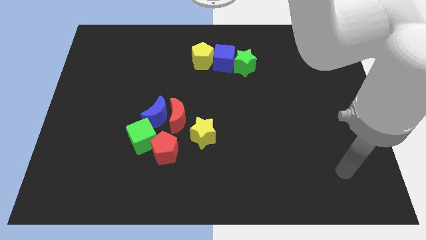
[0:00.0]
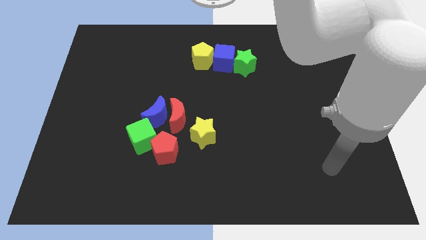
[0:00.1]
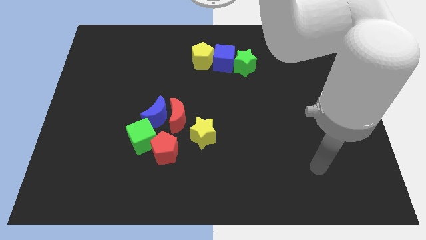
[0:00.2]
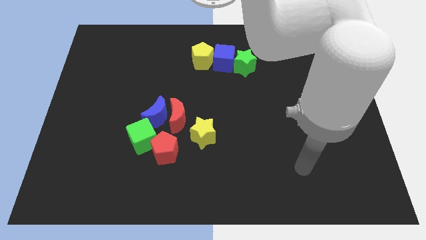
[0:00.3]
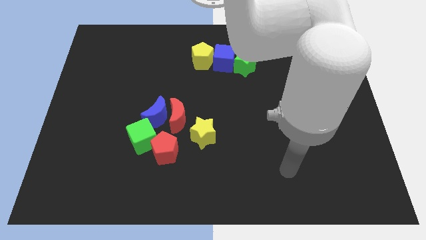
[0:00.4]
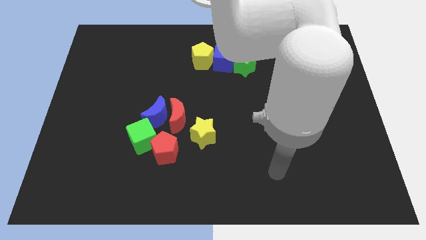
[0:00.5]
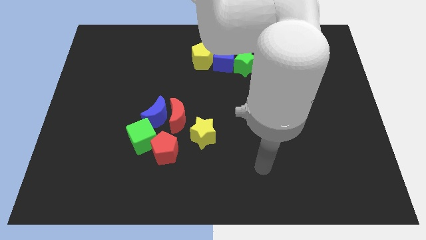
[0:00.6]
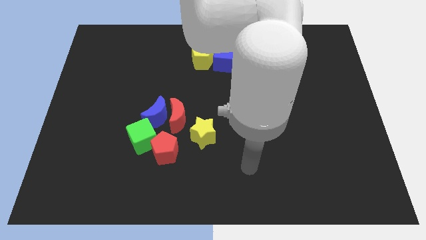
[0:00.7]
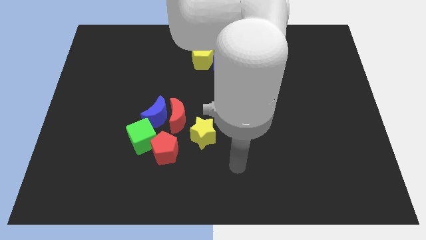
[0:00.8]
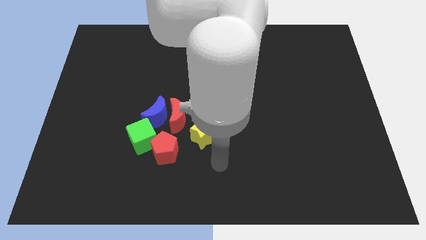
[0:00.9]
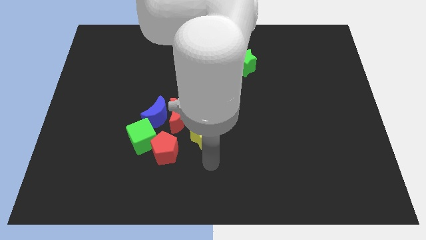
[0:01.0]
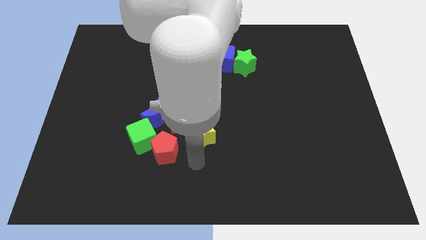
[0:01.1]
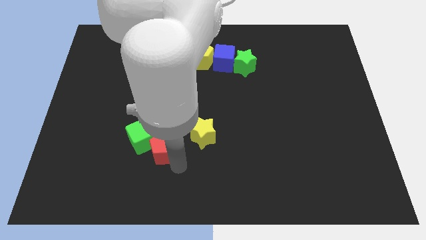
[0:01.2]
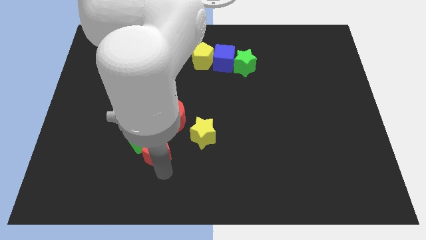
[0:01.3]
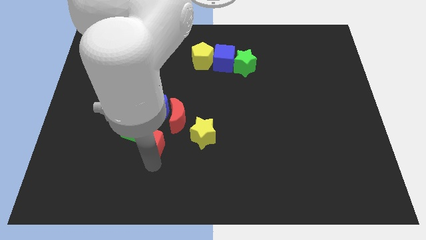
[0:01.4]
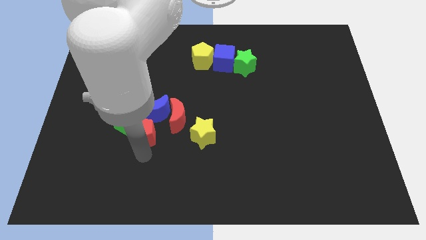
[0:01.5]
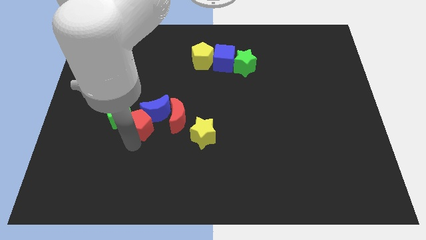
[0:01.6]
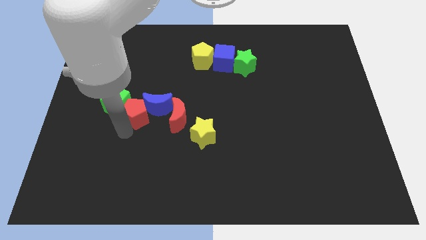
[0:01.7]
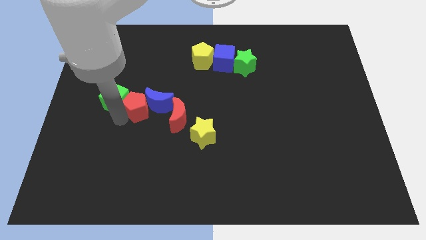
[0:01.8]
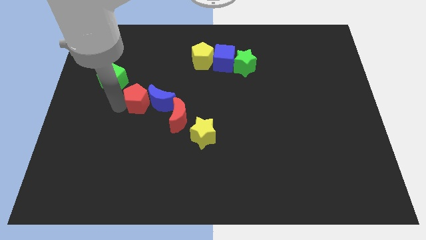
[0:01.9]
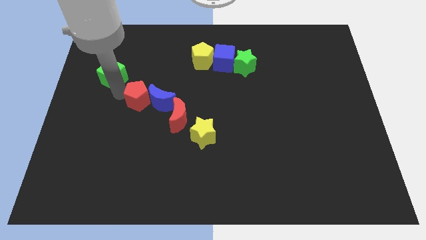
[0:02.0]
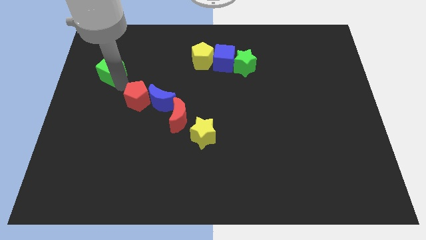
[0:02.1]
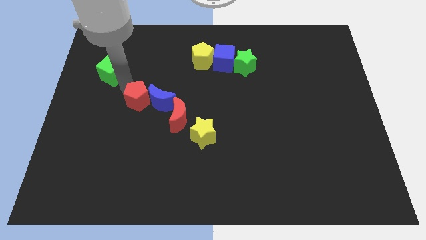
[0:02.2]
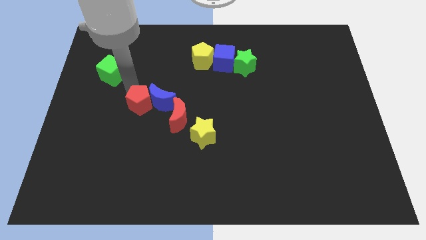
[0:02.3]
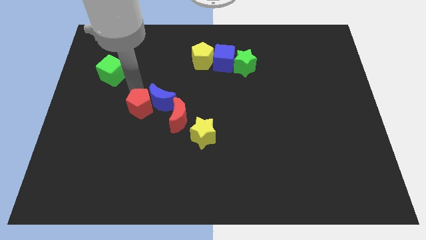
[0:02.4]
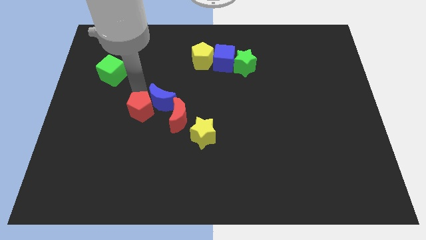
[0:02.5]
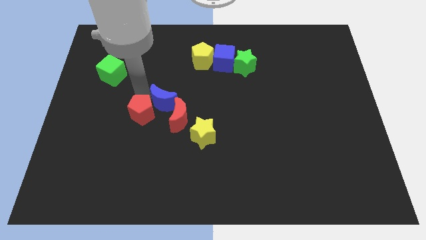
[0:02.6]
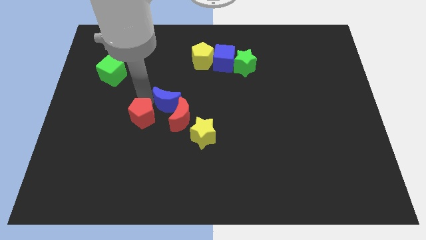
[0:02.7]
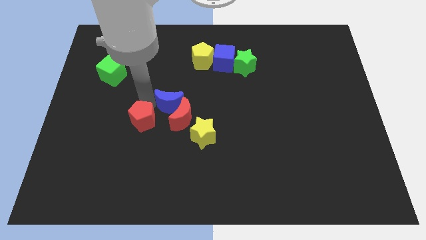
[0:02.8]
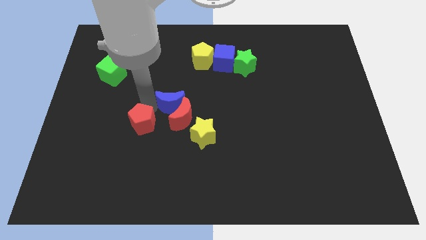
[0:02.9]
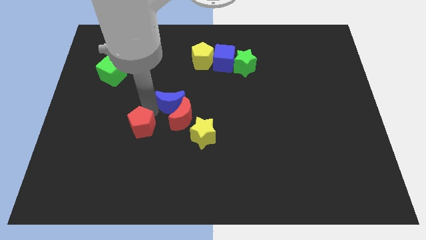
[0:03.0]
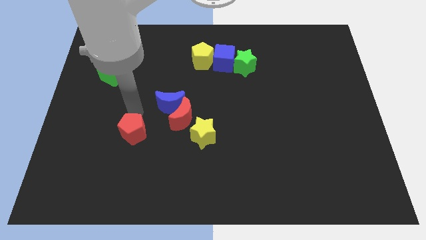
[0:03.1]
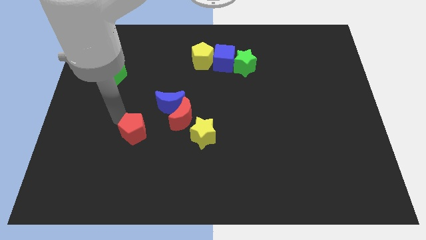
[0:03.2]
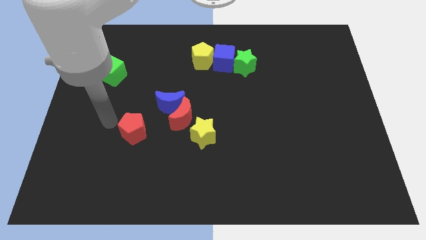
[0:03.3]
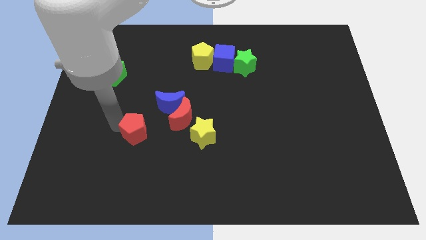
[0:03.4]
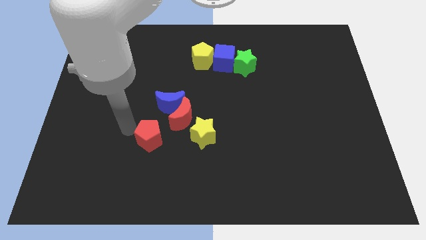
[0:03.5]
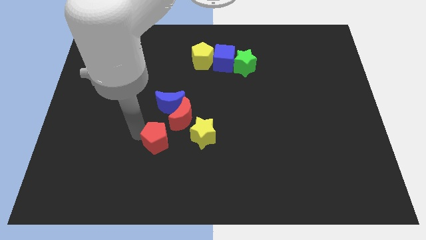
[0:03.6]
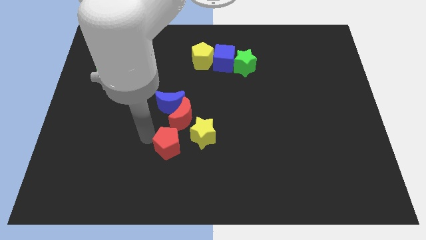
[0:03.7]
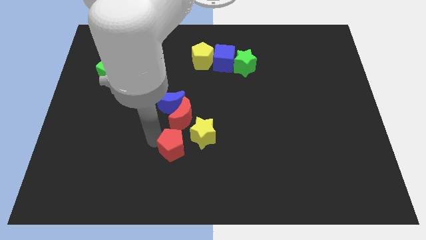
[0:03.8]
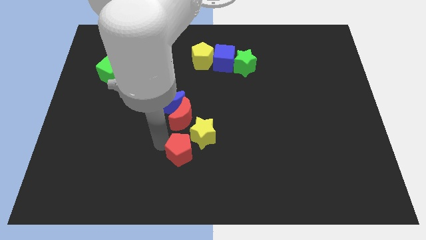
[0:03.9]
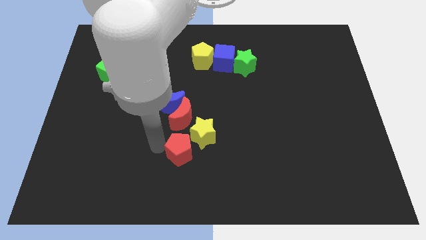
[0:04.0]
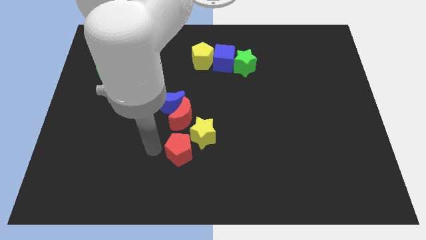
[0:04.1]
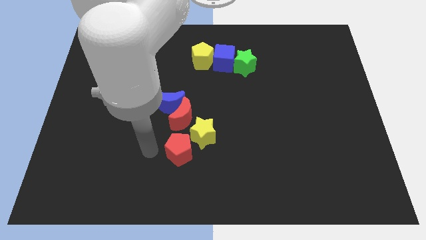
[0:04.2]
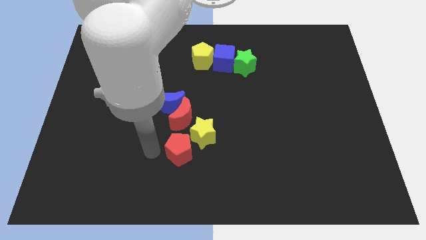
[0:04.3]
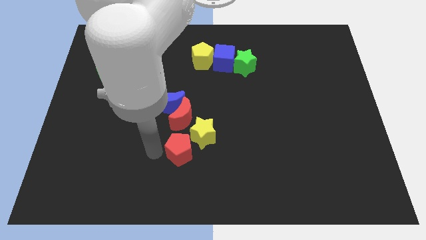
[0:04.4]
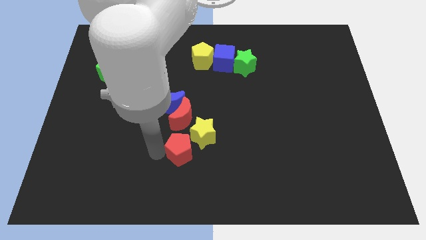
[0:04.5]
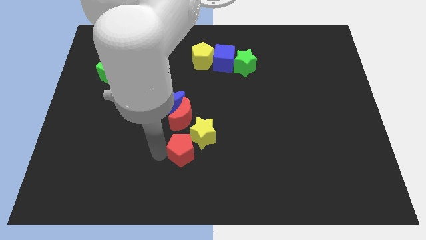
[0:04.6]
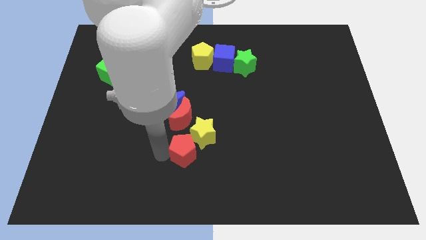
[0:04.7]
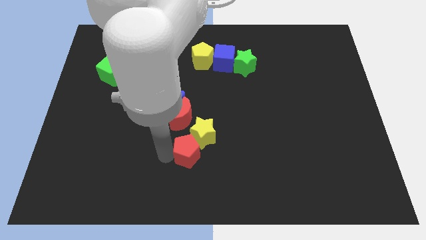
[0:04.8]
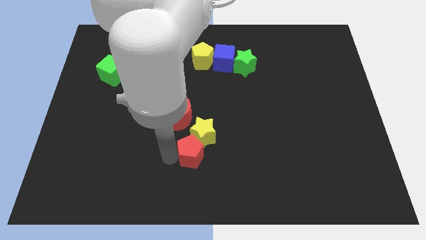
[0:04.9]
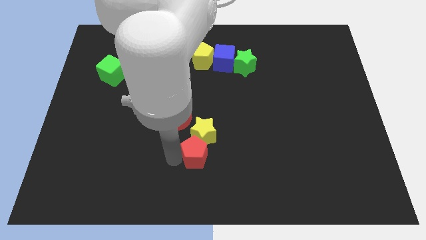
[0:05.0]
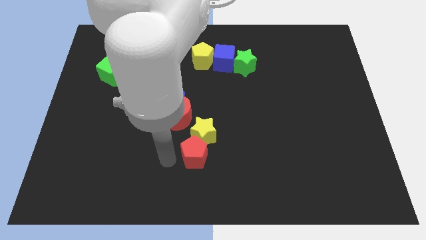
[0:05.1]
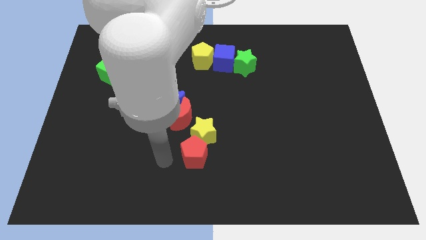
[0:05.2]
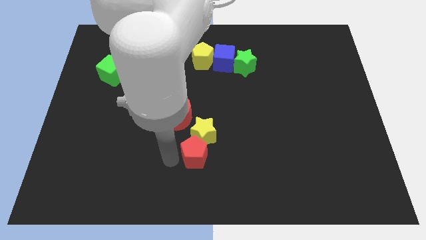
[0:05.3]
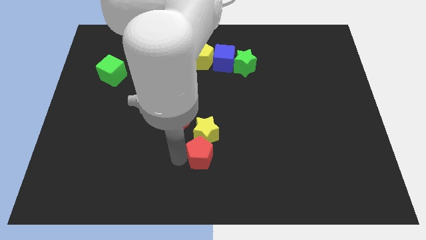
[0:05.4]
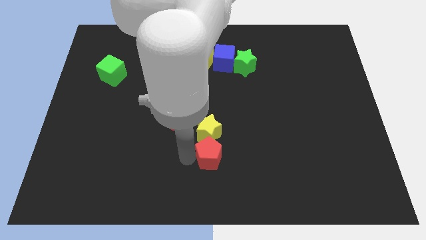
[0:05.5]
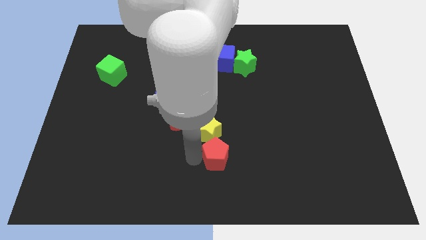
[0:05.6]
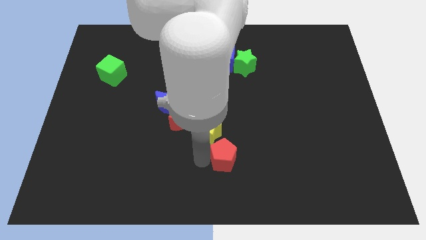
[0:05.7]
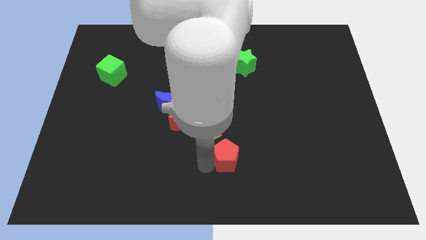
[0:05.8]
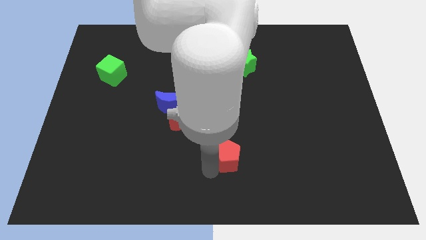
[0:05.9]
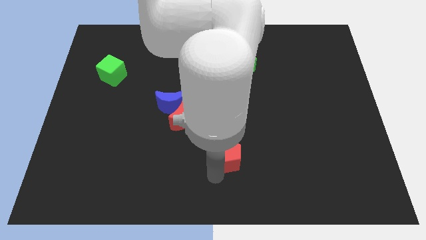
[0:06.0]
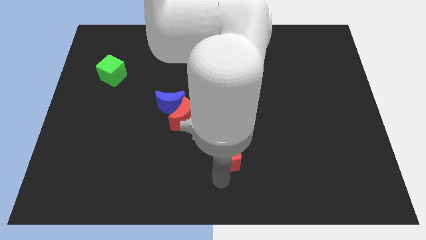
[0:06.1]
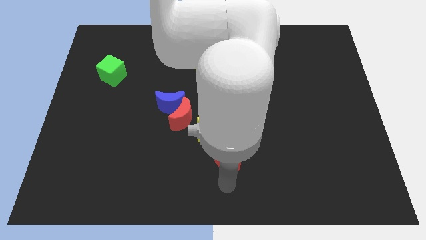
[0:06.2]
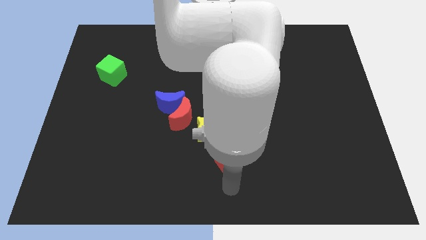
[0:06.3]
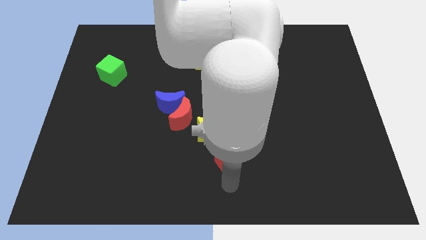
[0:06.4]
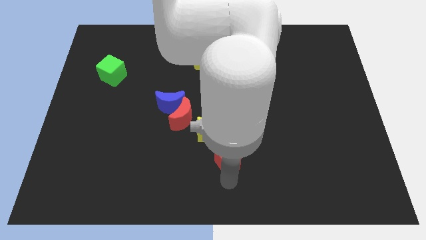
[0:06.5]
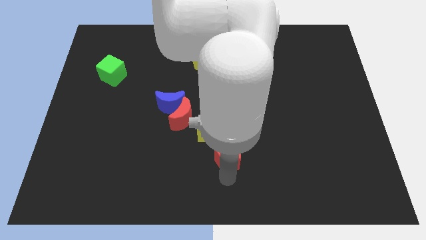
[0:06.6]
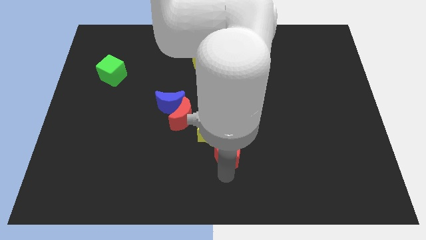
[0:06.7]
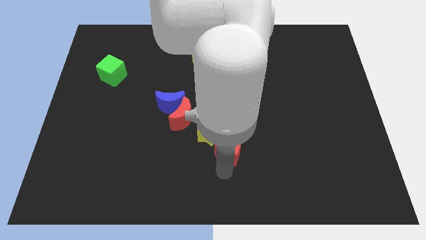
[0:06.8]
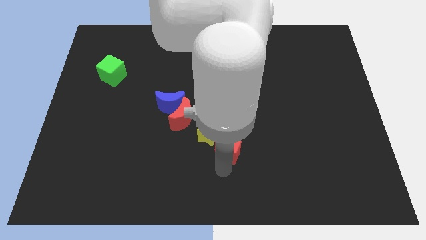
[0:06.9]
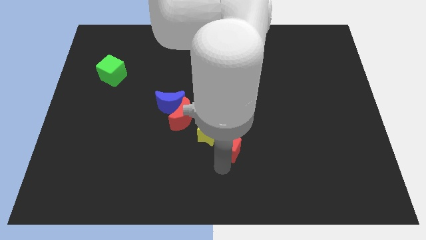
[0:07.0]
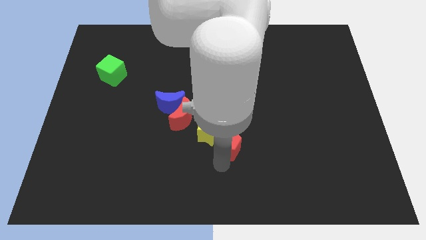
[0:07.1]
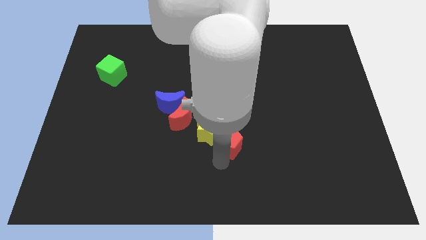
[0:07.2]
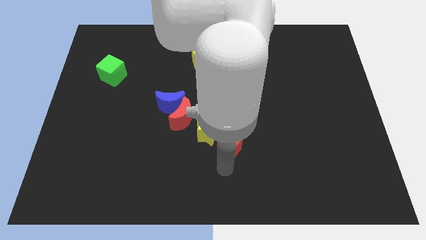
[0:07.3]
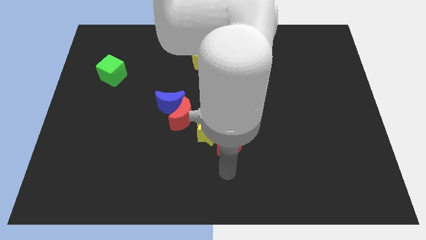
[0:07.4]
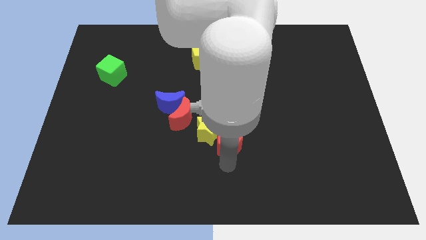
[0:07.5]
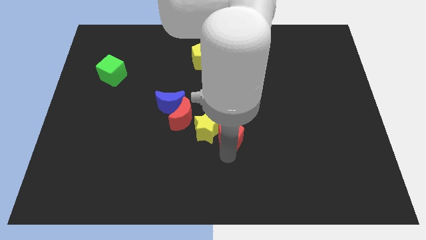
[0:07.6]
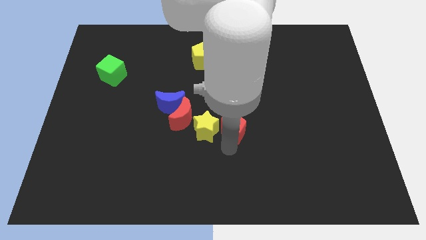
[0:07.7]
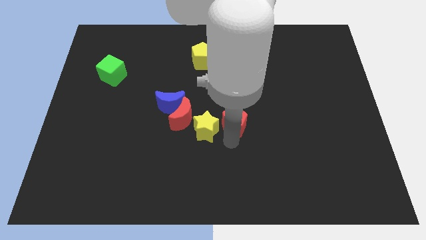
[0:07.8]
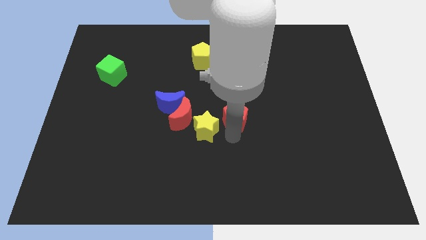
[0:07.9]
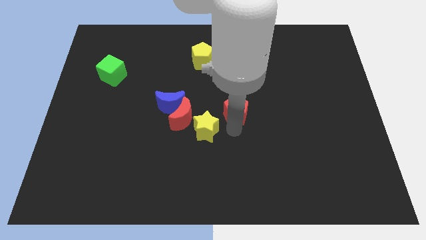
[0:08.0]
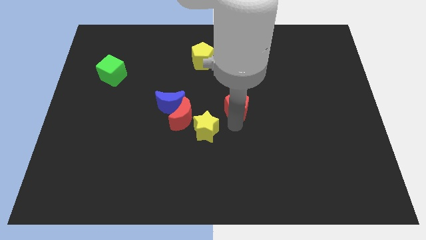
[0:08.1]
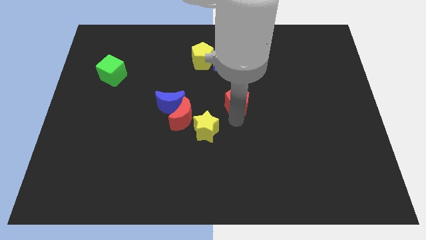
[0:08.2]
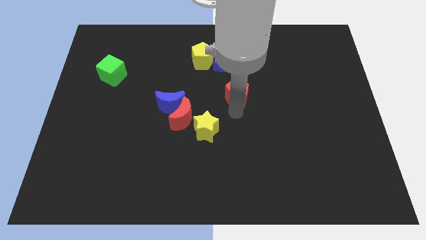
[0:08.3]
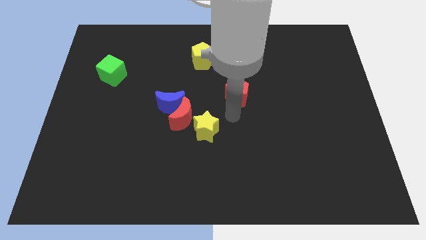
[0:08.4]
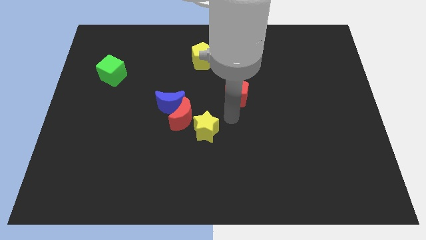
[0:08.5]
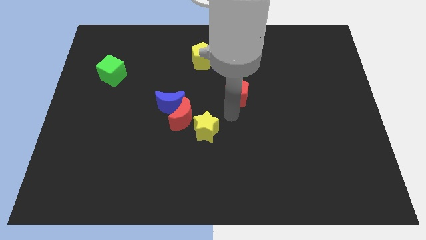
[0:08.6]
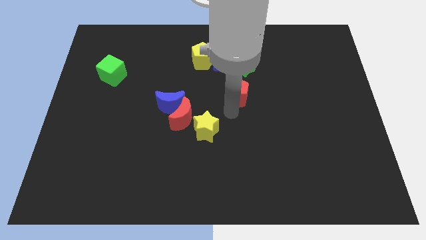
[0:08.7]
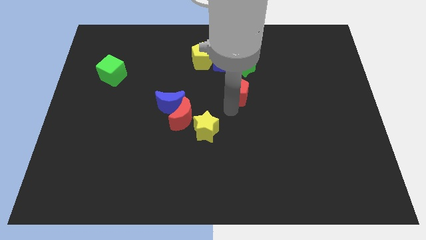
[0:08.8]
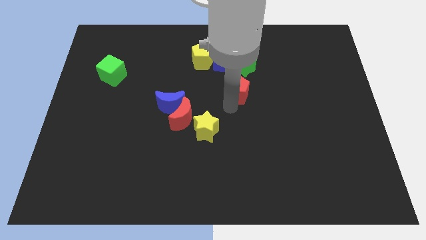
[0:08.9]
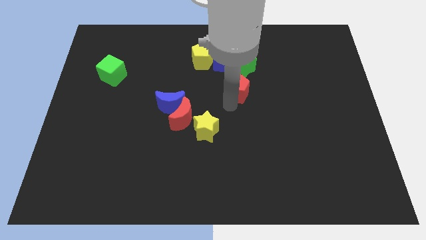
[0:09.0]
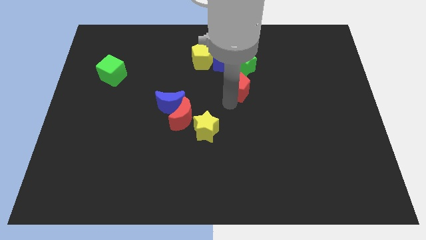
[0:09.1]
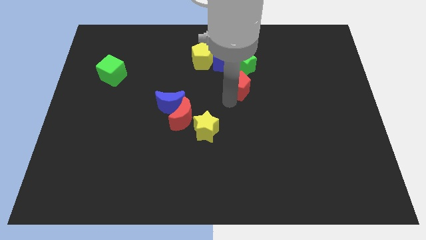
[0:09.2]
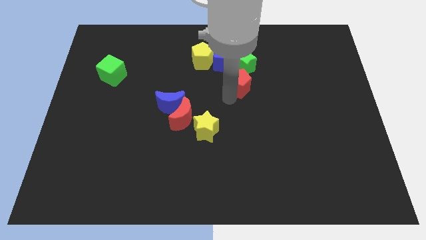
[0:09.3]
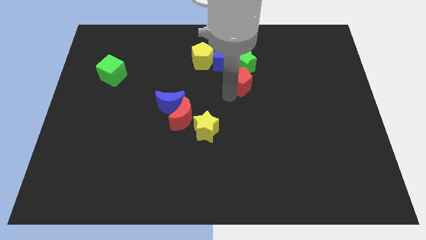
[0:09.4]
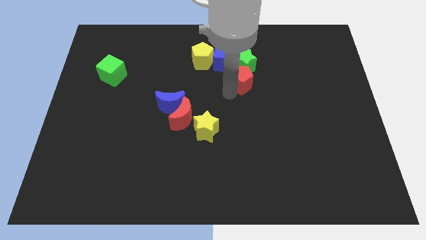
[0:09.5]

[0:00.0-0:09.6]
slide the red pentagon towards the green star
